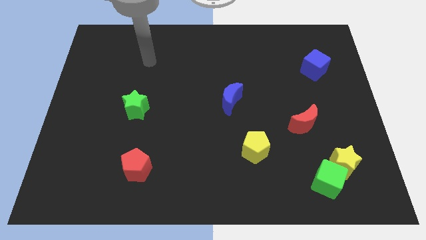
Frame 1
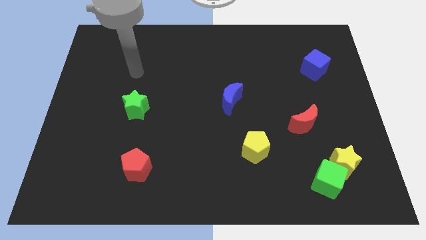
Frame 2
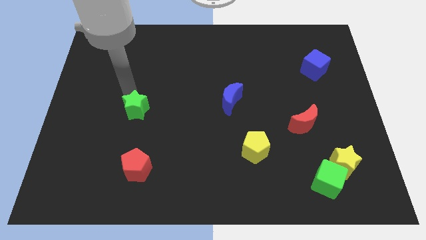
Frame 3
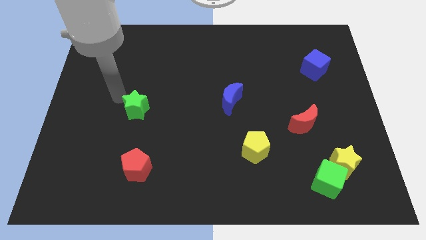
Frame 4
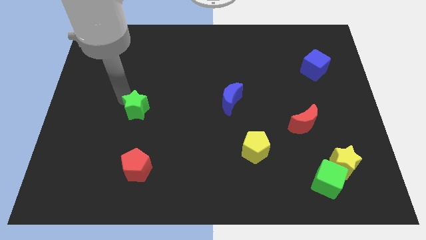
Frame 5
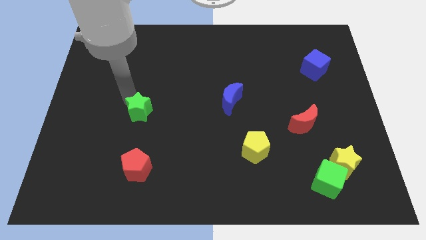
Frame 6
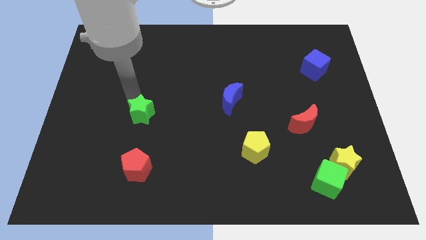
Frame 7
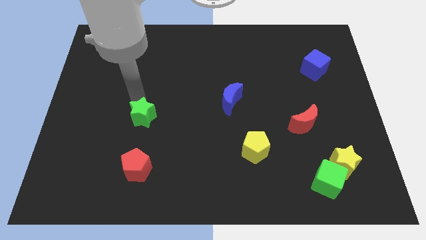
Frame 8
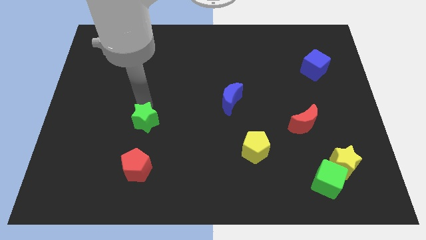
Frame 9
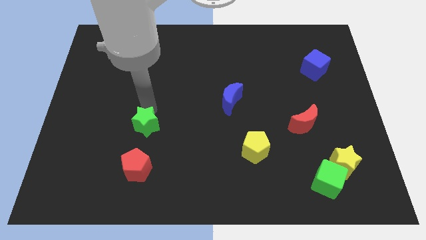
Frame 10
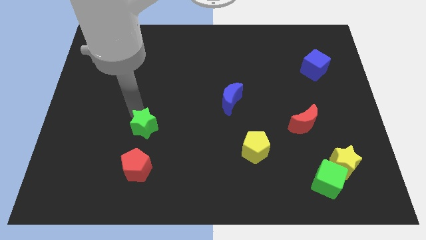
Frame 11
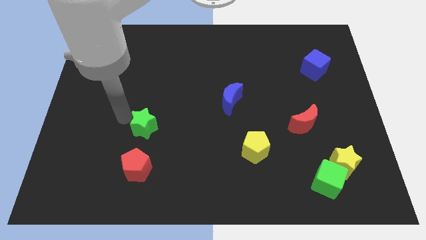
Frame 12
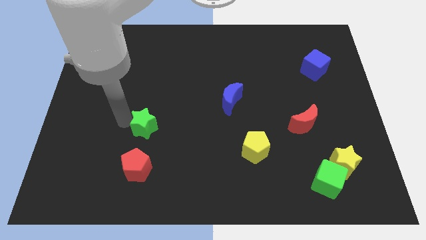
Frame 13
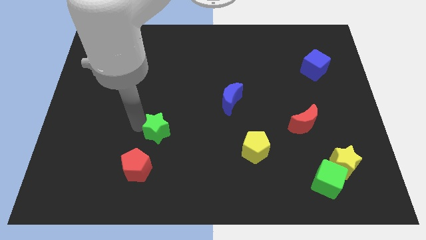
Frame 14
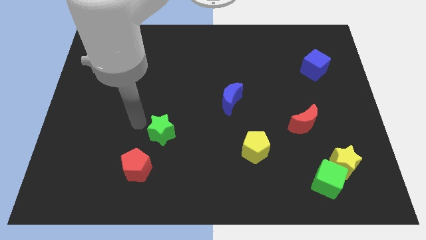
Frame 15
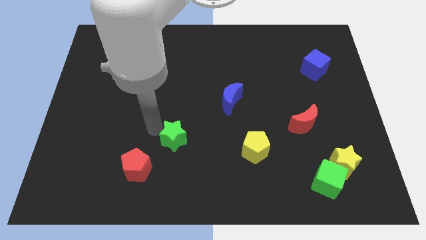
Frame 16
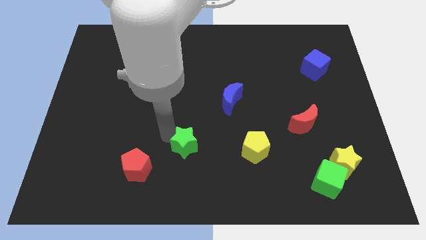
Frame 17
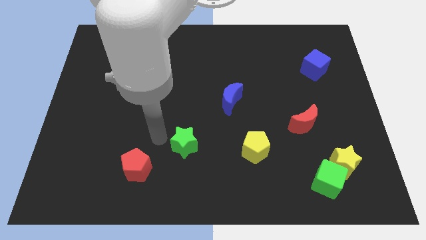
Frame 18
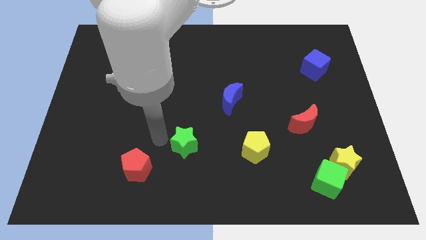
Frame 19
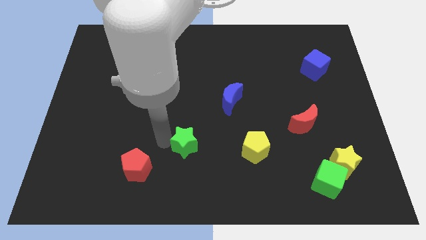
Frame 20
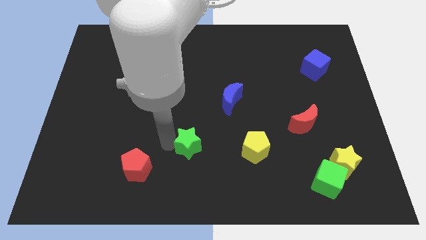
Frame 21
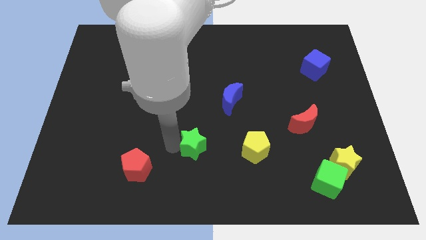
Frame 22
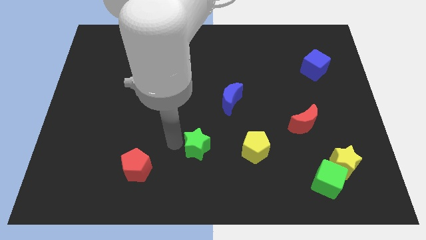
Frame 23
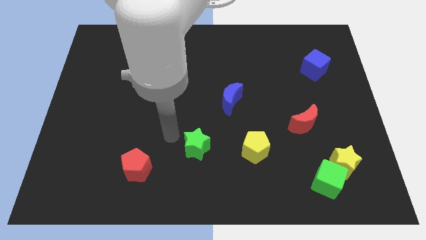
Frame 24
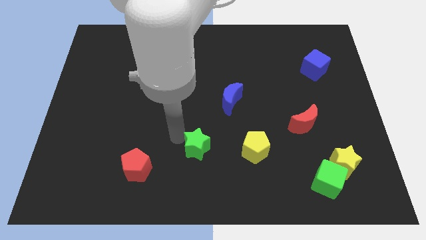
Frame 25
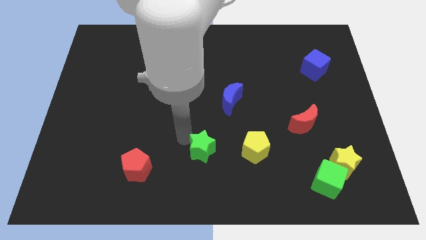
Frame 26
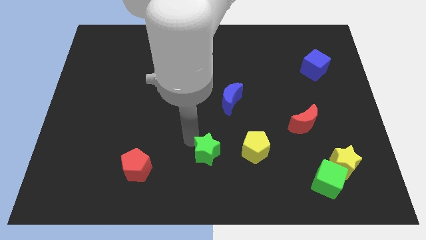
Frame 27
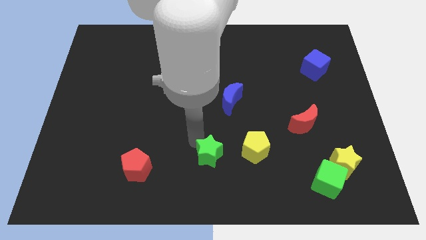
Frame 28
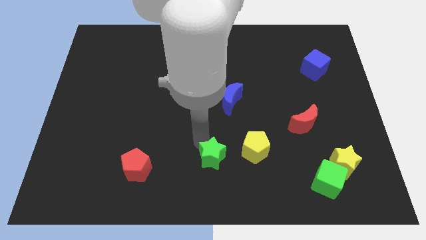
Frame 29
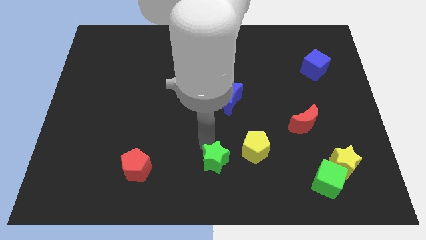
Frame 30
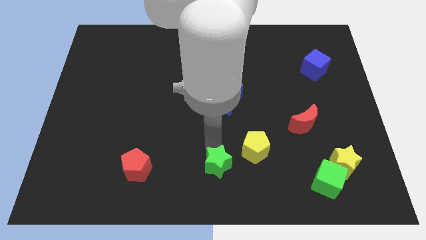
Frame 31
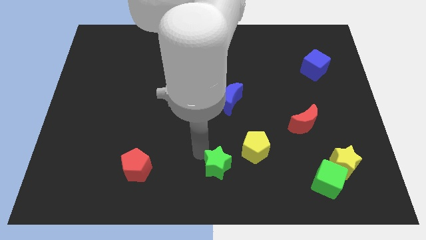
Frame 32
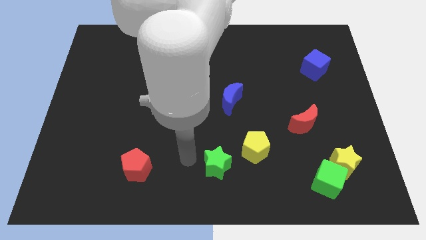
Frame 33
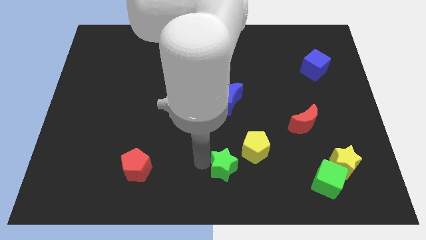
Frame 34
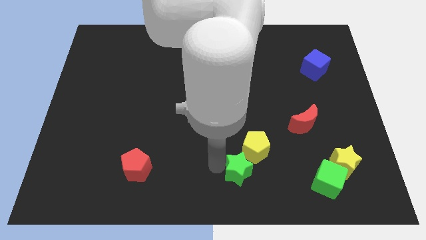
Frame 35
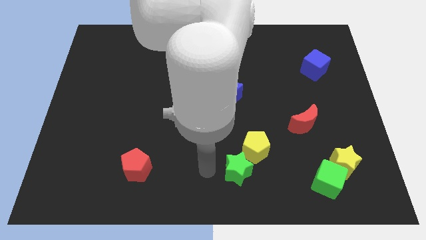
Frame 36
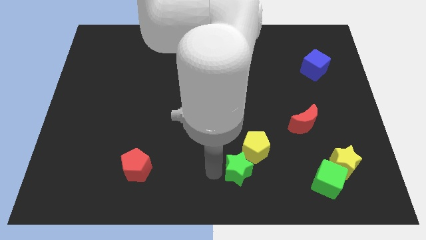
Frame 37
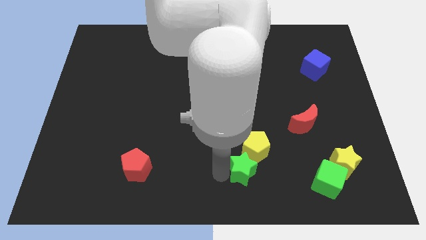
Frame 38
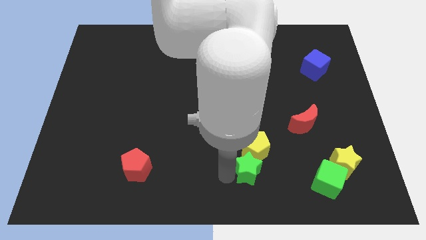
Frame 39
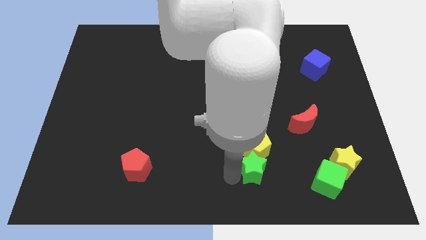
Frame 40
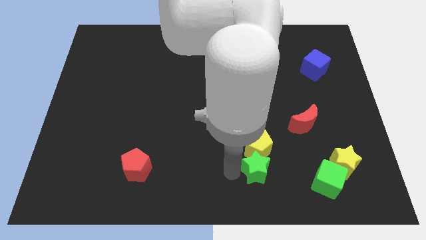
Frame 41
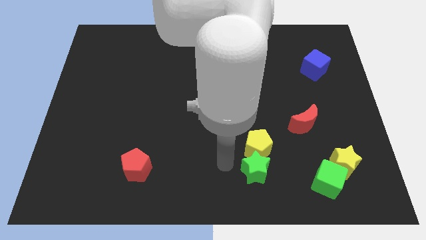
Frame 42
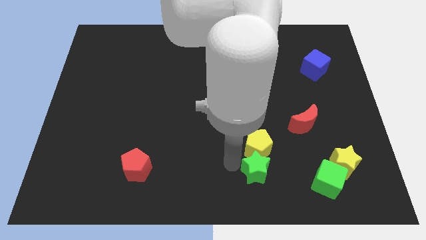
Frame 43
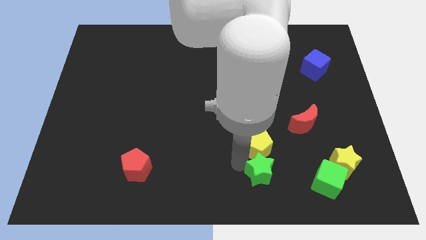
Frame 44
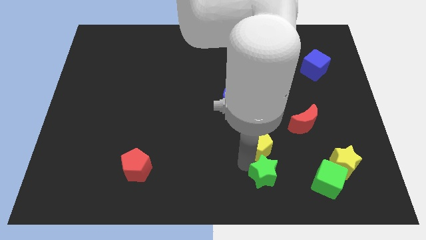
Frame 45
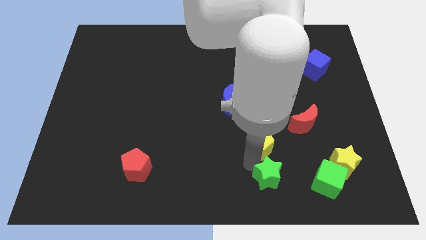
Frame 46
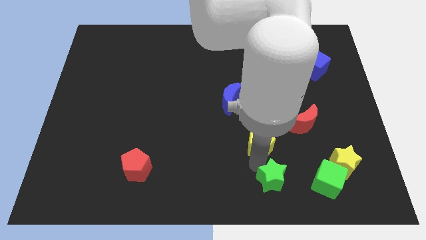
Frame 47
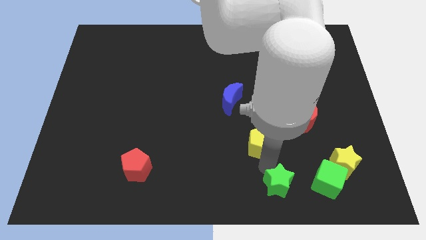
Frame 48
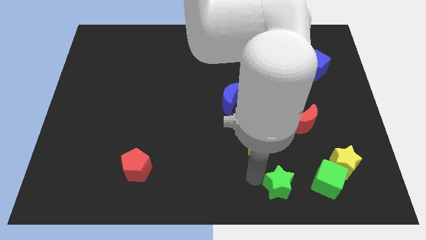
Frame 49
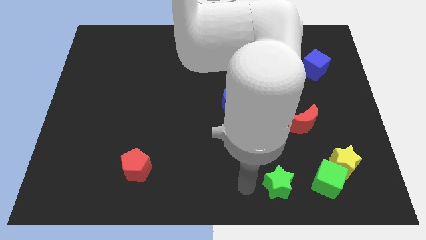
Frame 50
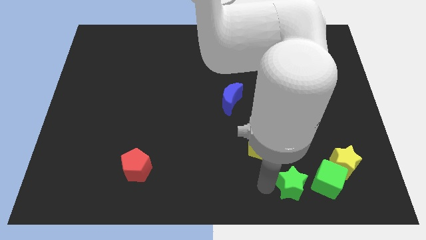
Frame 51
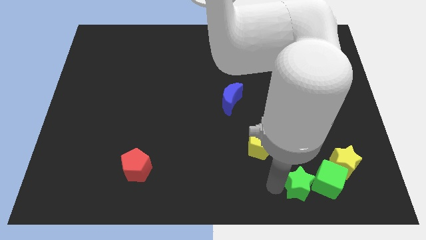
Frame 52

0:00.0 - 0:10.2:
put the green star towards the green cube

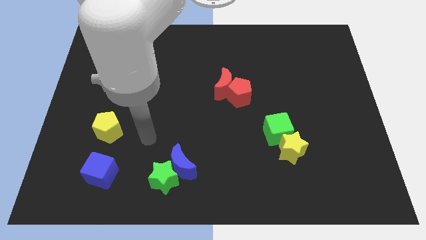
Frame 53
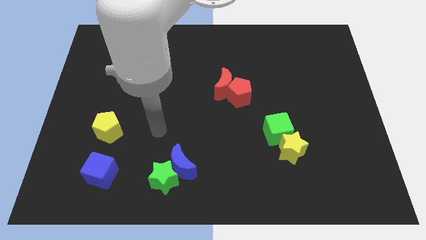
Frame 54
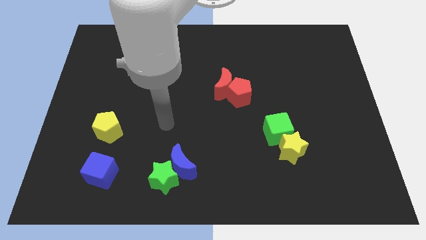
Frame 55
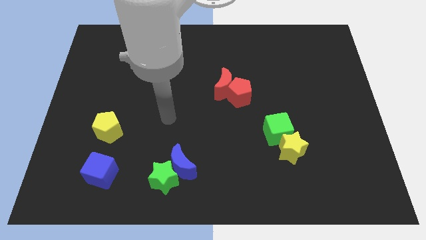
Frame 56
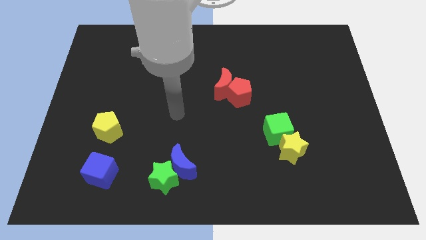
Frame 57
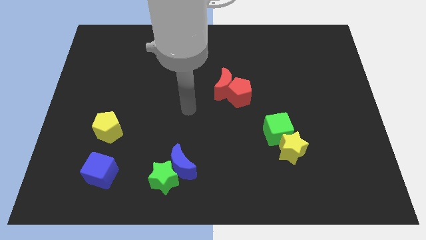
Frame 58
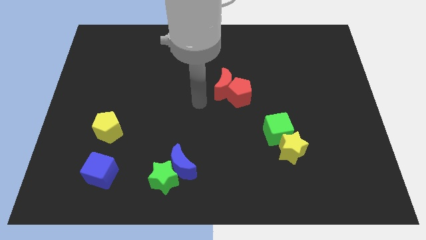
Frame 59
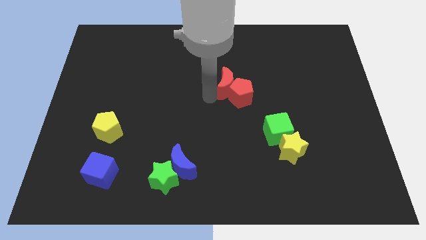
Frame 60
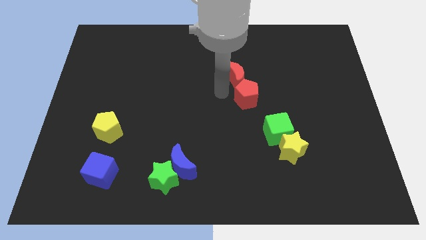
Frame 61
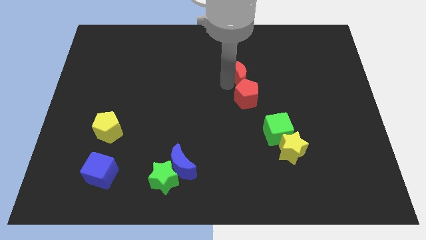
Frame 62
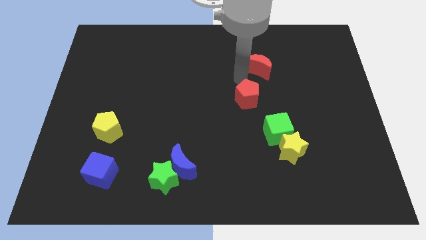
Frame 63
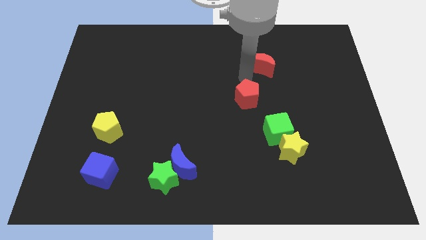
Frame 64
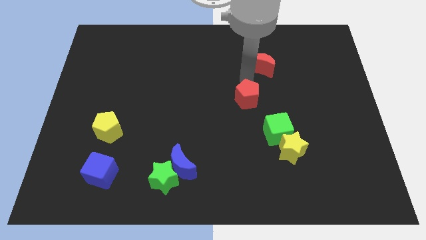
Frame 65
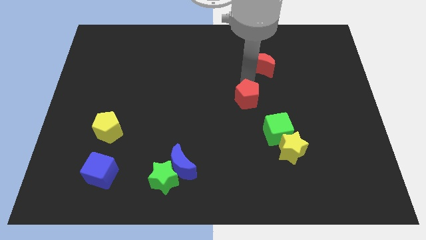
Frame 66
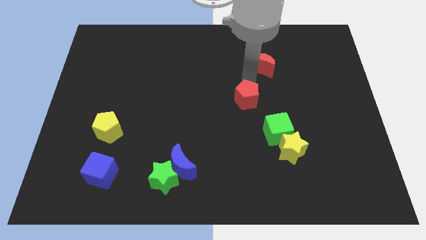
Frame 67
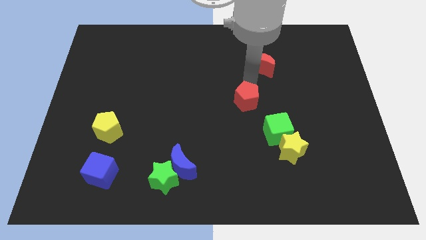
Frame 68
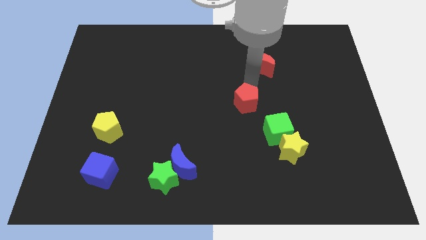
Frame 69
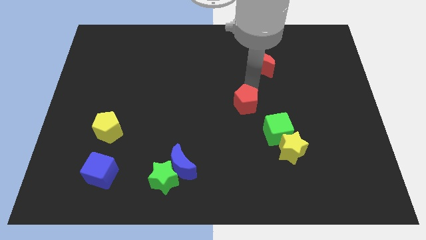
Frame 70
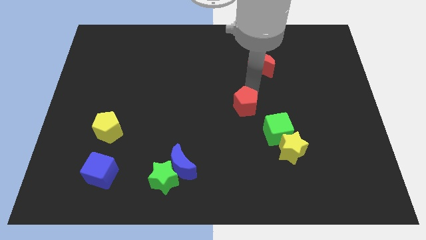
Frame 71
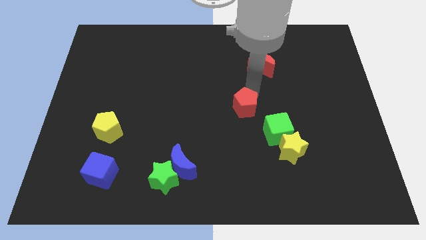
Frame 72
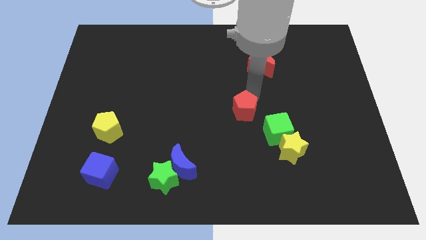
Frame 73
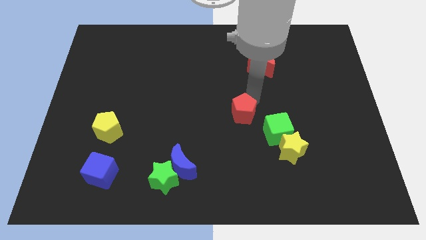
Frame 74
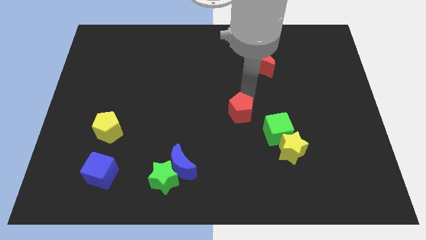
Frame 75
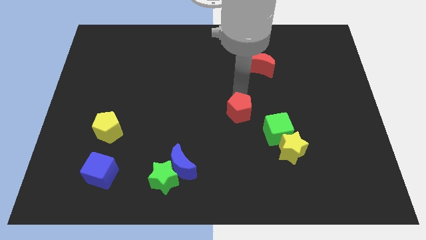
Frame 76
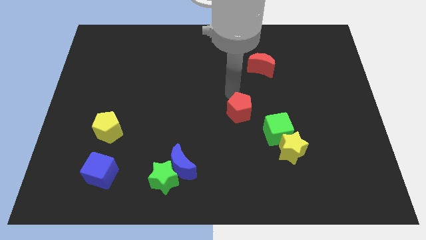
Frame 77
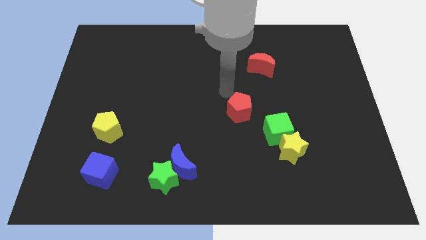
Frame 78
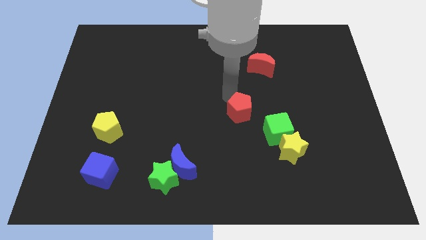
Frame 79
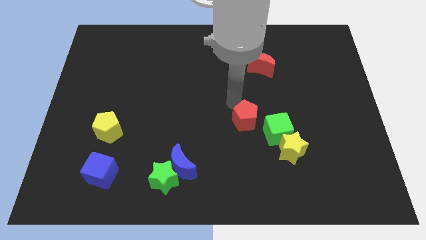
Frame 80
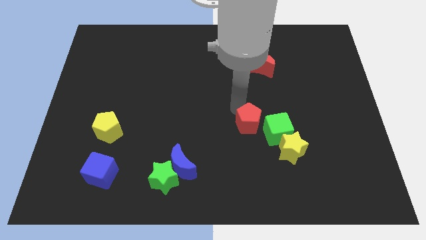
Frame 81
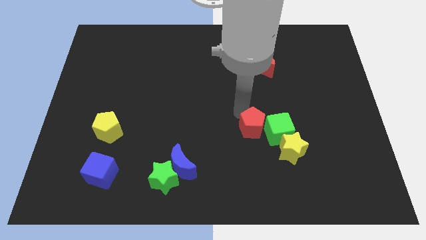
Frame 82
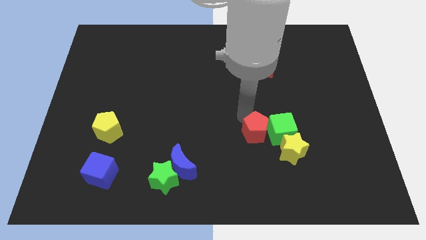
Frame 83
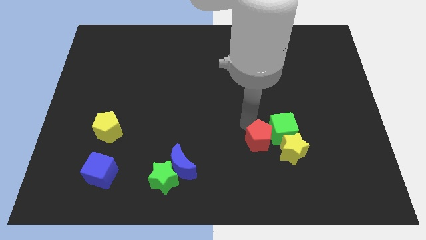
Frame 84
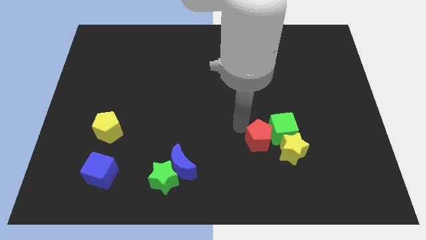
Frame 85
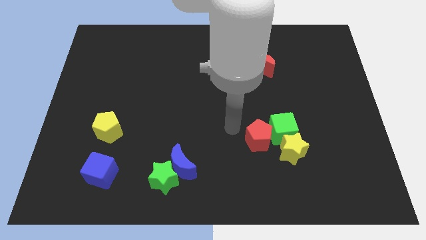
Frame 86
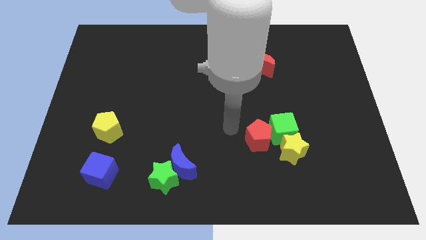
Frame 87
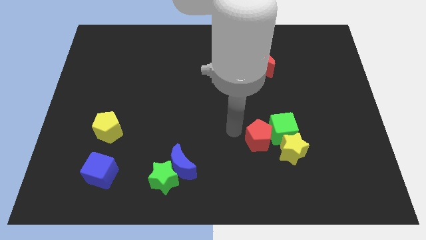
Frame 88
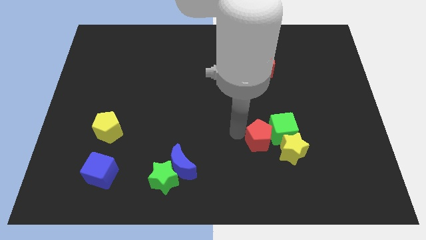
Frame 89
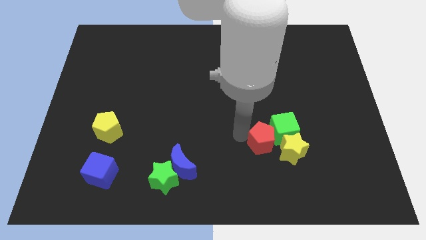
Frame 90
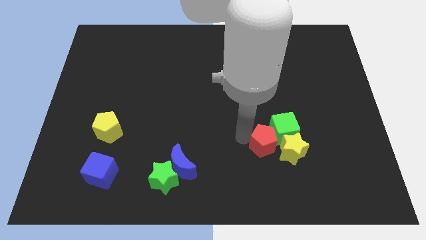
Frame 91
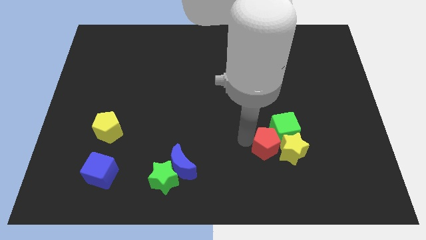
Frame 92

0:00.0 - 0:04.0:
push the red pentagon to the yellow star
